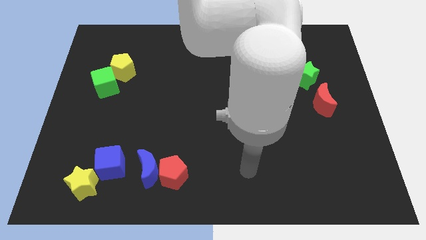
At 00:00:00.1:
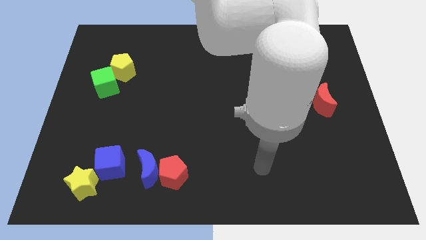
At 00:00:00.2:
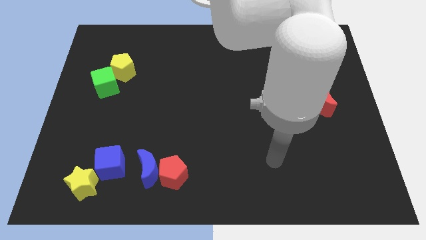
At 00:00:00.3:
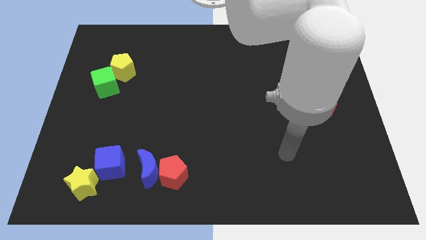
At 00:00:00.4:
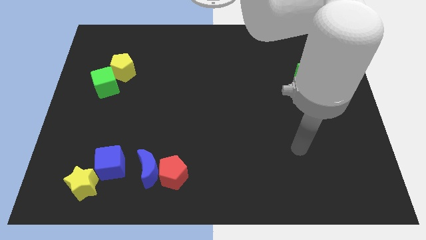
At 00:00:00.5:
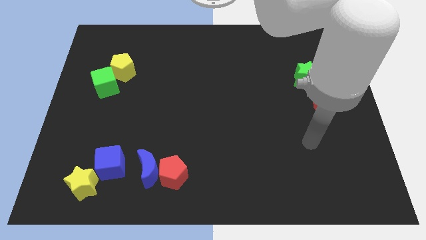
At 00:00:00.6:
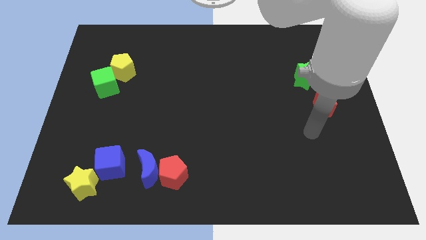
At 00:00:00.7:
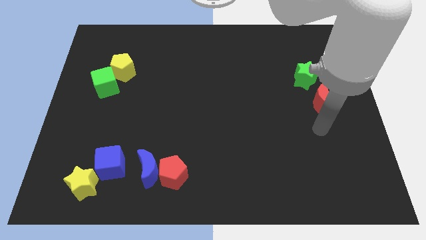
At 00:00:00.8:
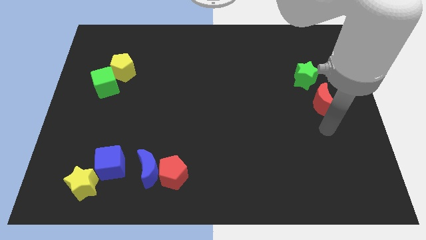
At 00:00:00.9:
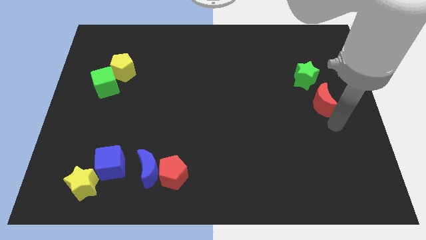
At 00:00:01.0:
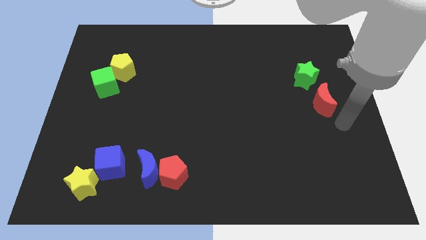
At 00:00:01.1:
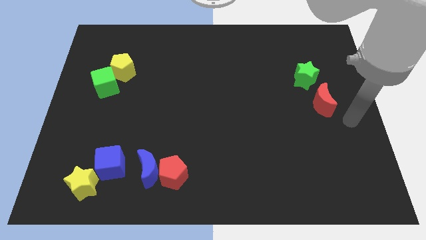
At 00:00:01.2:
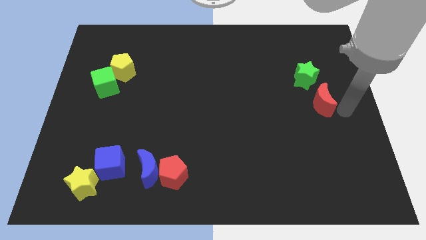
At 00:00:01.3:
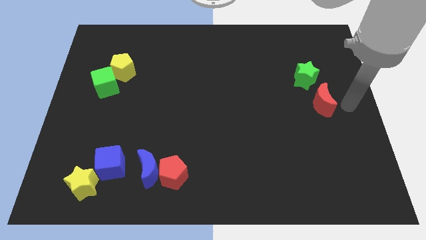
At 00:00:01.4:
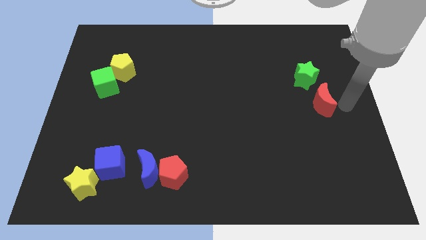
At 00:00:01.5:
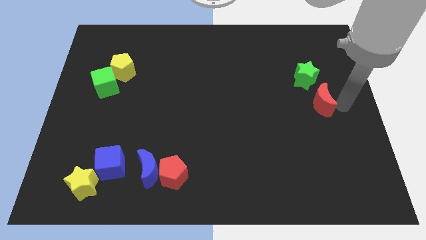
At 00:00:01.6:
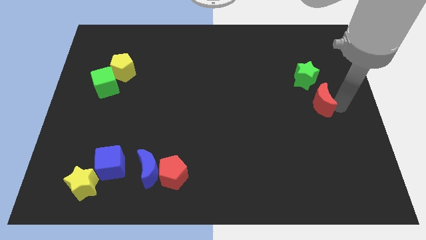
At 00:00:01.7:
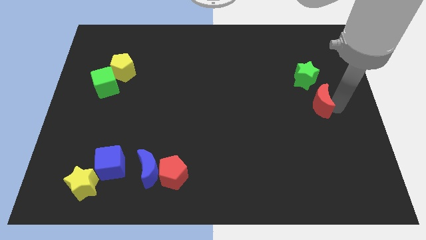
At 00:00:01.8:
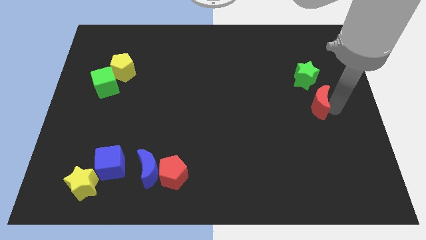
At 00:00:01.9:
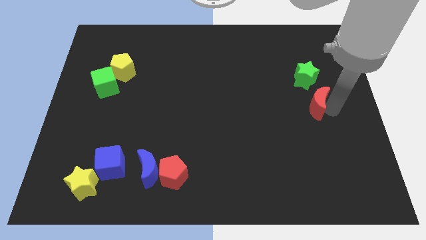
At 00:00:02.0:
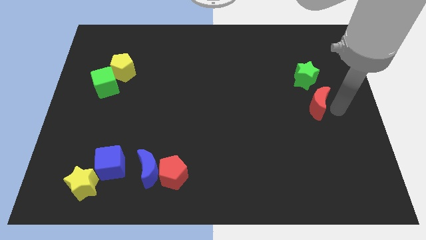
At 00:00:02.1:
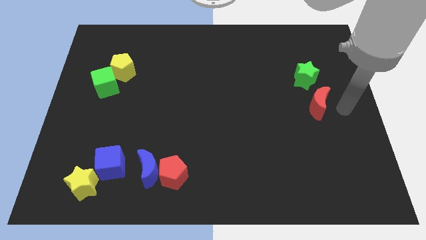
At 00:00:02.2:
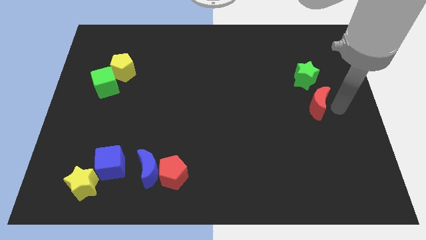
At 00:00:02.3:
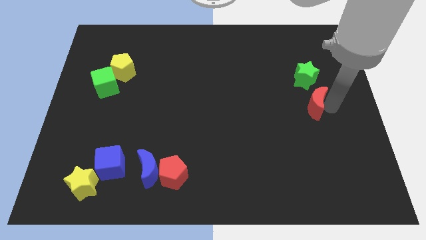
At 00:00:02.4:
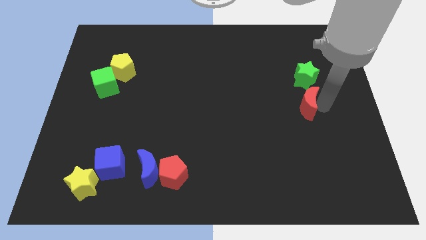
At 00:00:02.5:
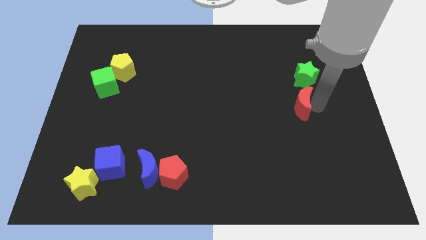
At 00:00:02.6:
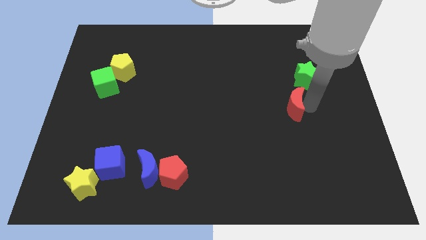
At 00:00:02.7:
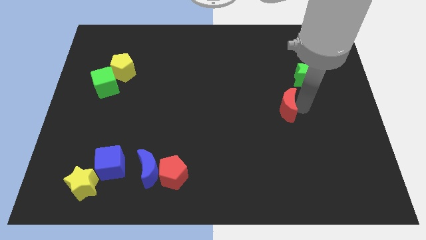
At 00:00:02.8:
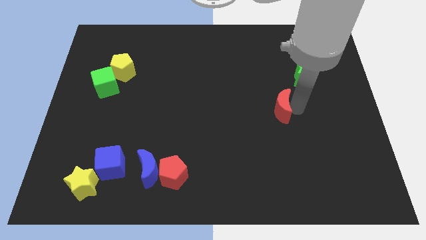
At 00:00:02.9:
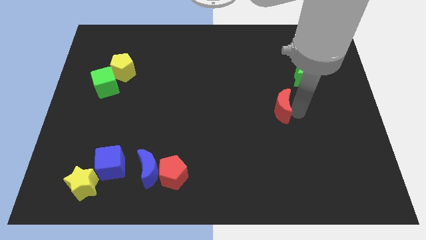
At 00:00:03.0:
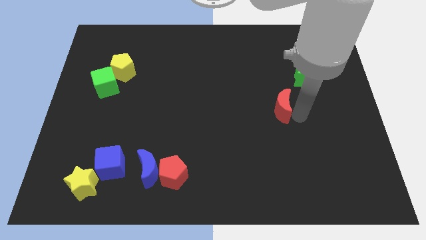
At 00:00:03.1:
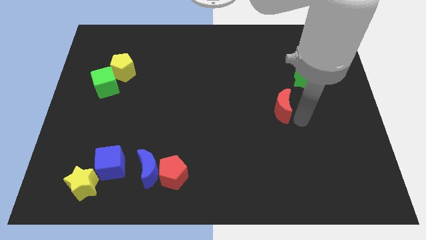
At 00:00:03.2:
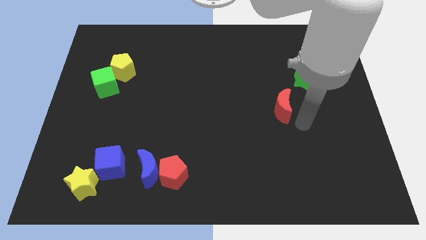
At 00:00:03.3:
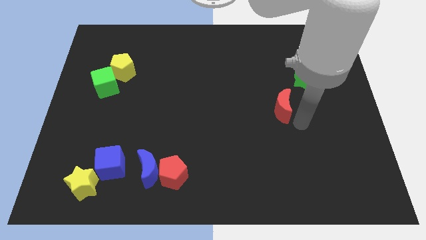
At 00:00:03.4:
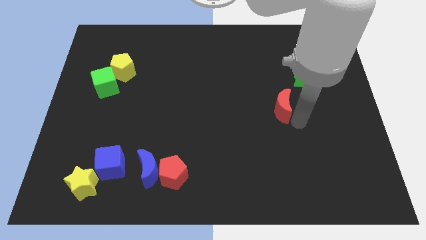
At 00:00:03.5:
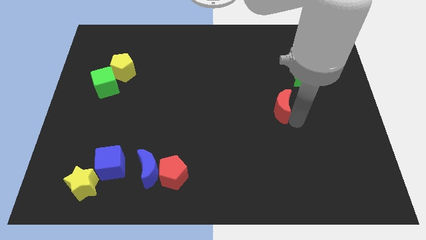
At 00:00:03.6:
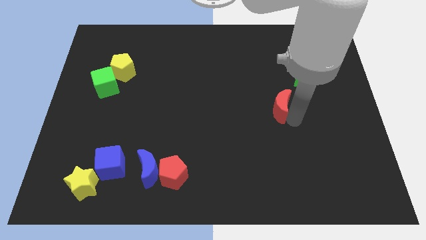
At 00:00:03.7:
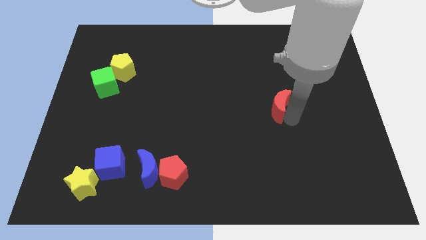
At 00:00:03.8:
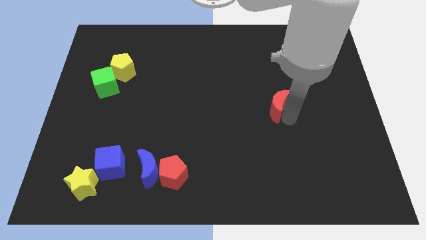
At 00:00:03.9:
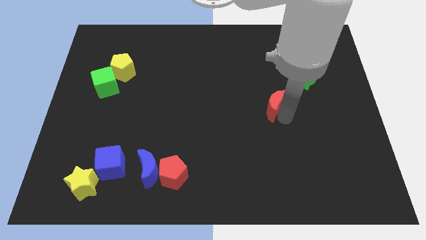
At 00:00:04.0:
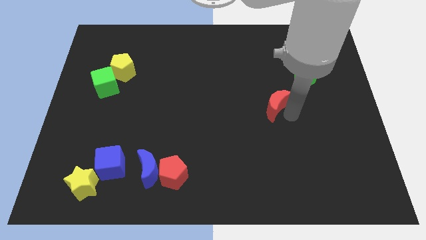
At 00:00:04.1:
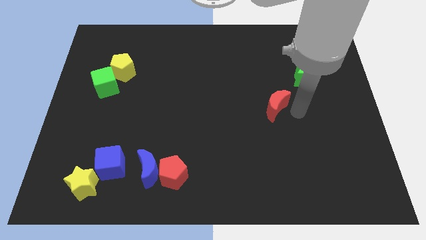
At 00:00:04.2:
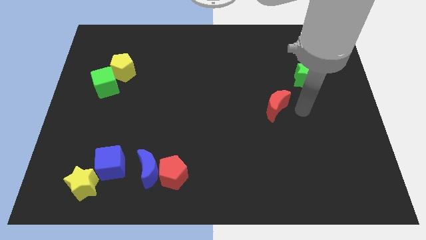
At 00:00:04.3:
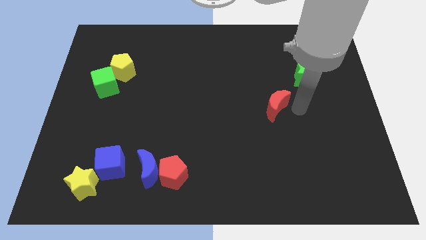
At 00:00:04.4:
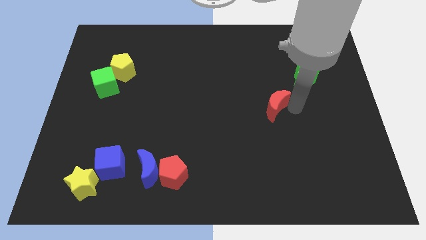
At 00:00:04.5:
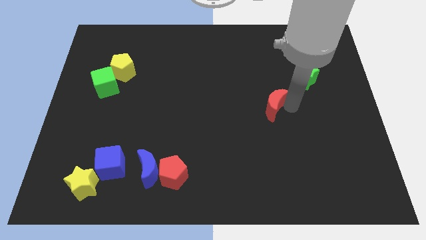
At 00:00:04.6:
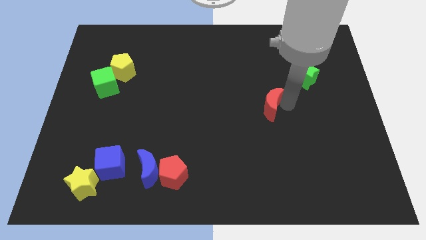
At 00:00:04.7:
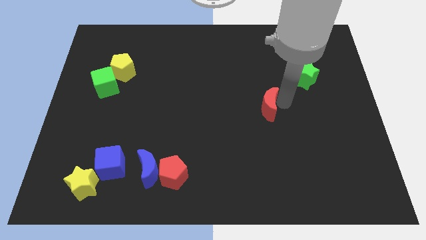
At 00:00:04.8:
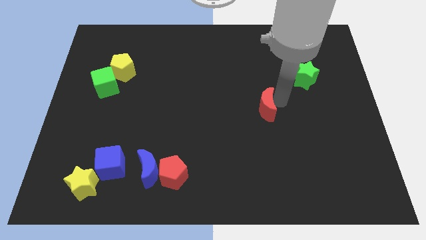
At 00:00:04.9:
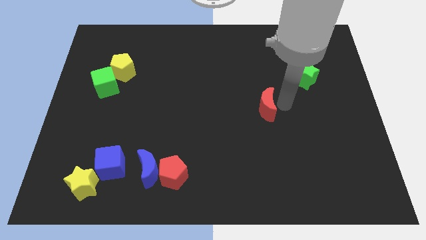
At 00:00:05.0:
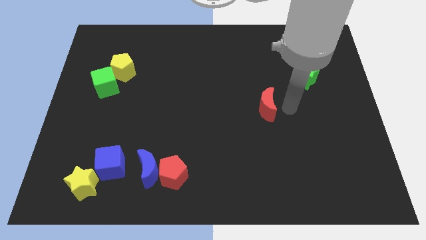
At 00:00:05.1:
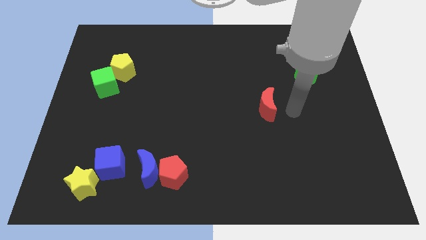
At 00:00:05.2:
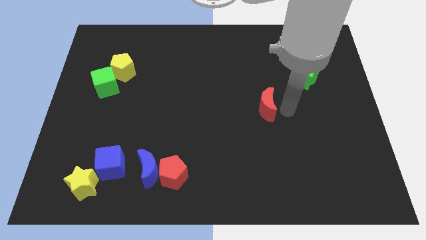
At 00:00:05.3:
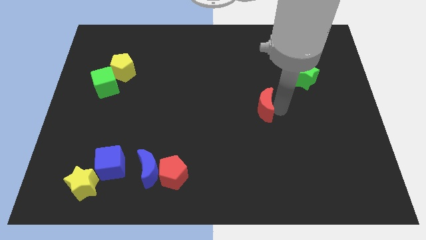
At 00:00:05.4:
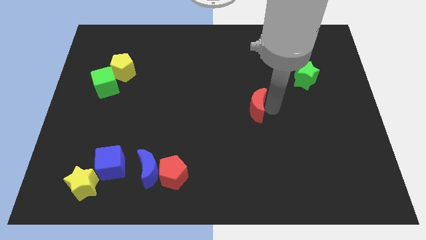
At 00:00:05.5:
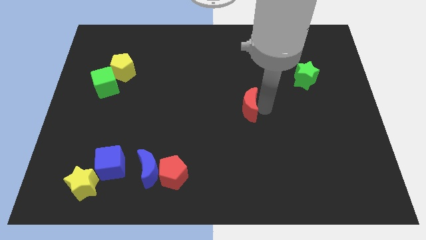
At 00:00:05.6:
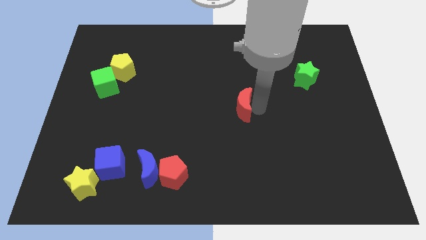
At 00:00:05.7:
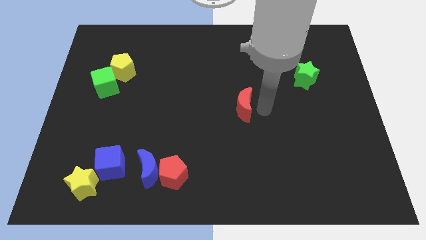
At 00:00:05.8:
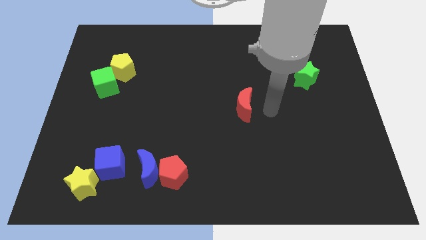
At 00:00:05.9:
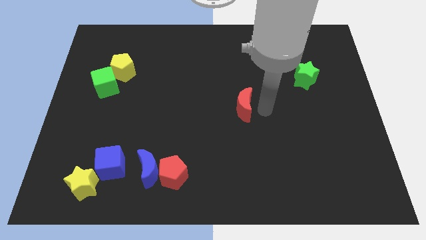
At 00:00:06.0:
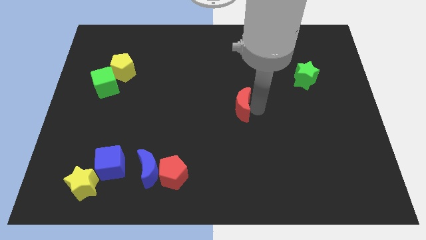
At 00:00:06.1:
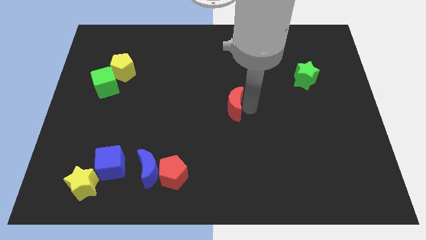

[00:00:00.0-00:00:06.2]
slide the red moon to the left

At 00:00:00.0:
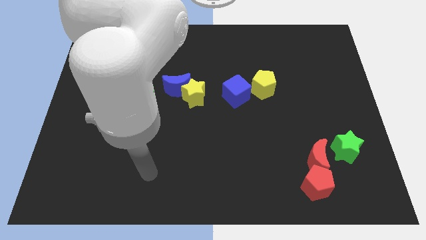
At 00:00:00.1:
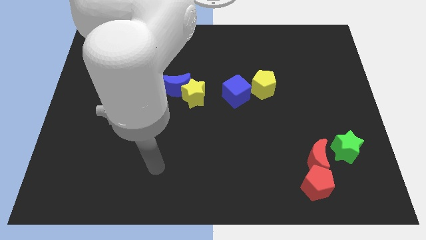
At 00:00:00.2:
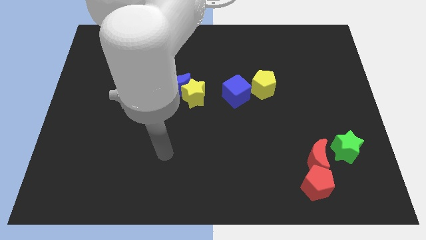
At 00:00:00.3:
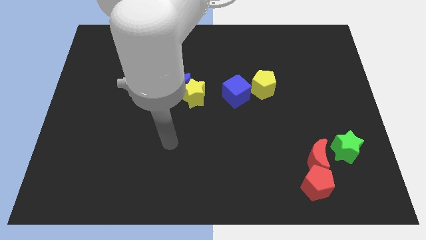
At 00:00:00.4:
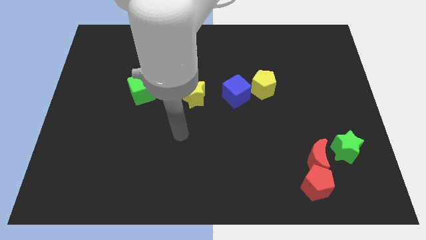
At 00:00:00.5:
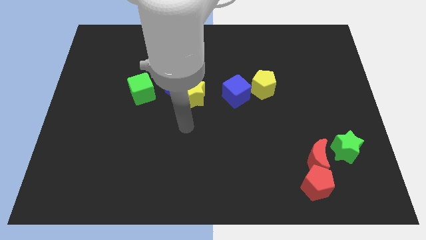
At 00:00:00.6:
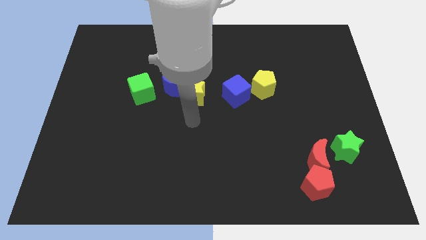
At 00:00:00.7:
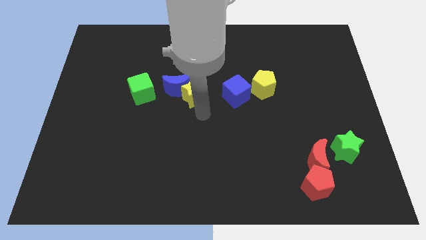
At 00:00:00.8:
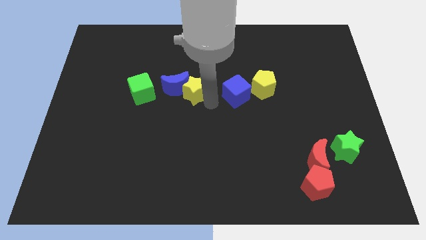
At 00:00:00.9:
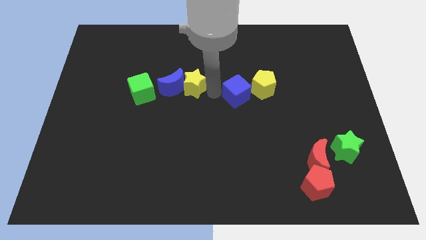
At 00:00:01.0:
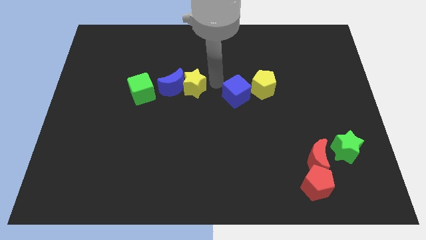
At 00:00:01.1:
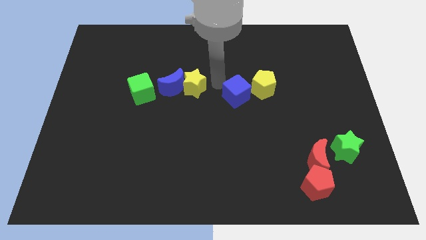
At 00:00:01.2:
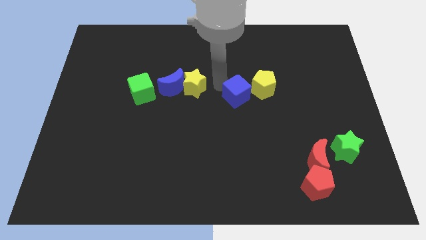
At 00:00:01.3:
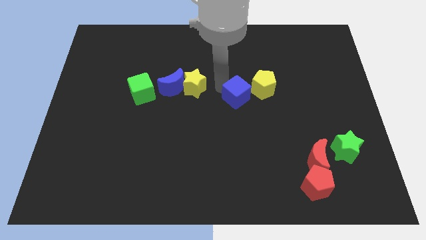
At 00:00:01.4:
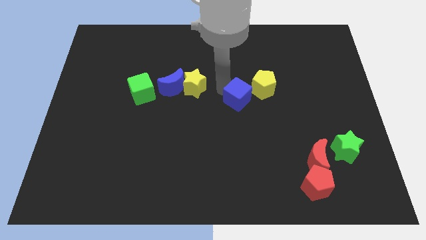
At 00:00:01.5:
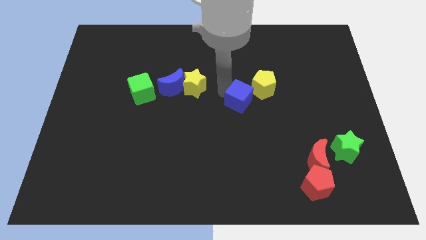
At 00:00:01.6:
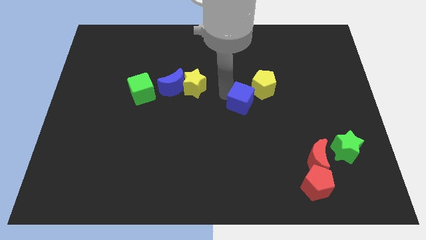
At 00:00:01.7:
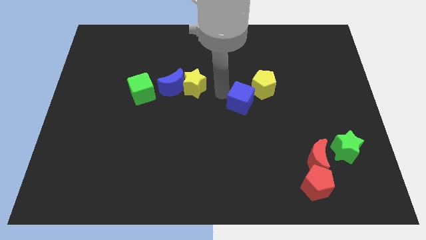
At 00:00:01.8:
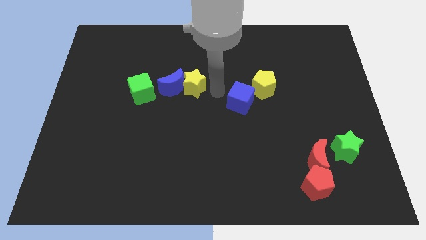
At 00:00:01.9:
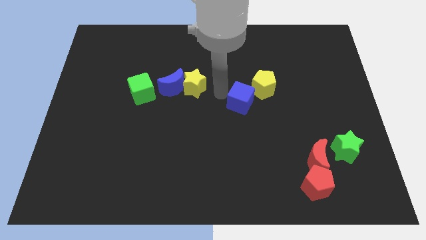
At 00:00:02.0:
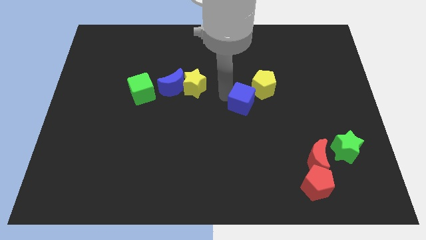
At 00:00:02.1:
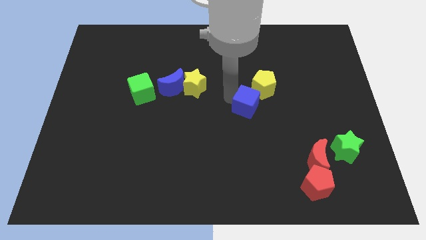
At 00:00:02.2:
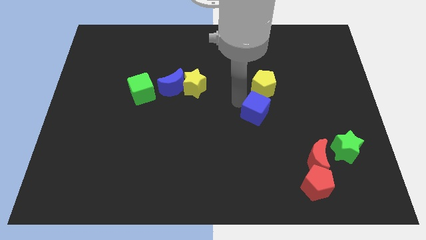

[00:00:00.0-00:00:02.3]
move the blue cube down and to the right a little bit
